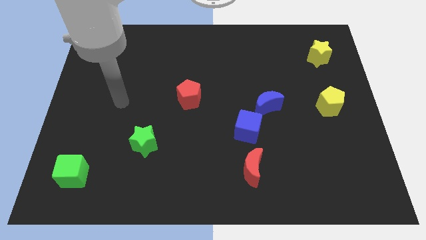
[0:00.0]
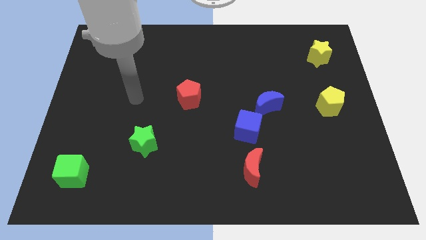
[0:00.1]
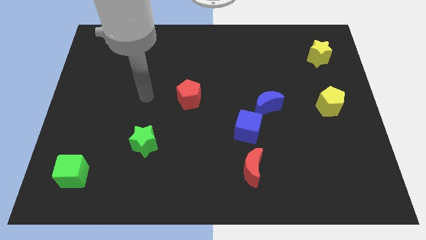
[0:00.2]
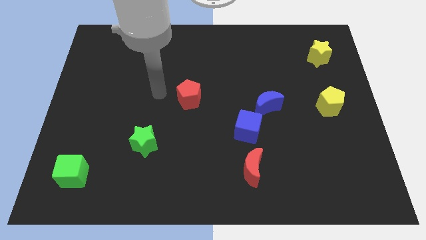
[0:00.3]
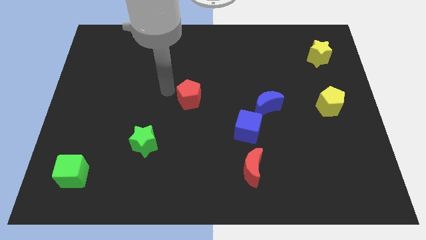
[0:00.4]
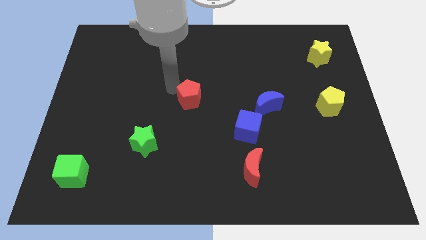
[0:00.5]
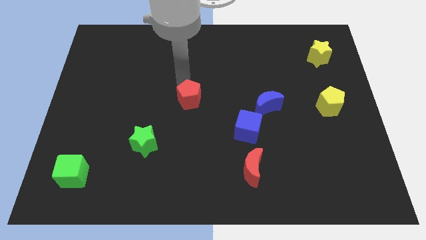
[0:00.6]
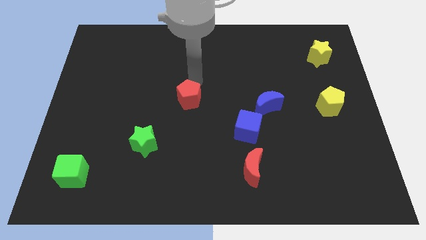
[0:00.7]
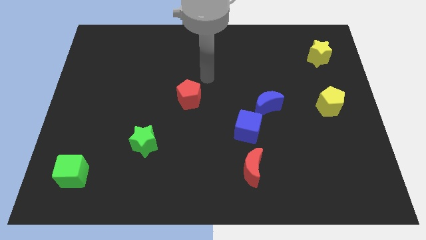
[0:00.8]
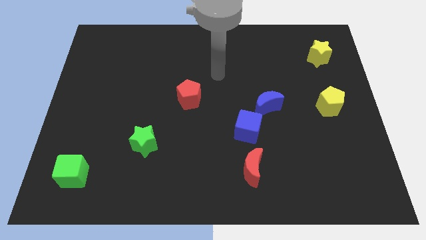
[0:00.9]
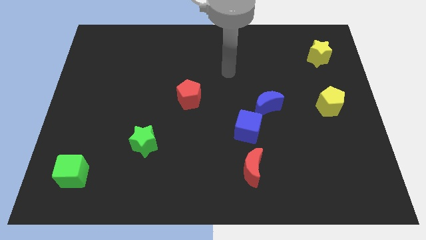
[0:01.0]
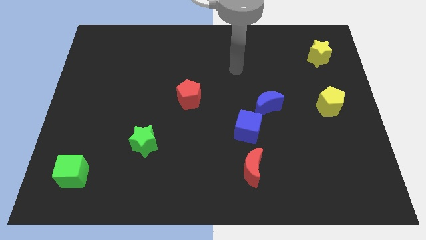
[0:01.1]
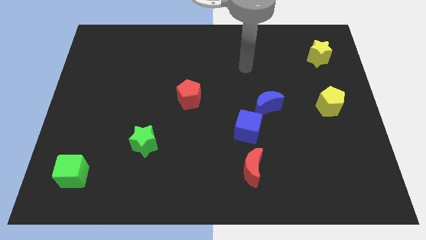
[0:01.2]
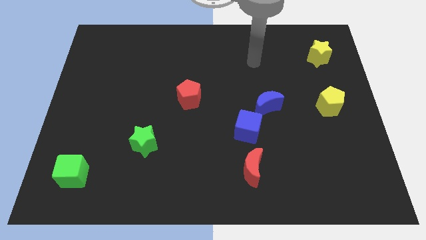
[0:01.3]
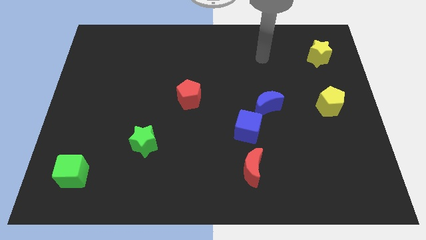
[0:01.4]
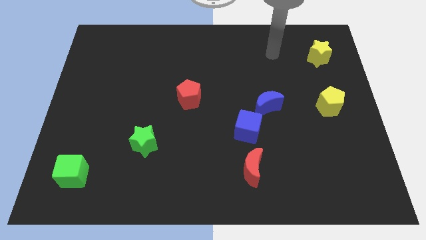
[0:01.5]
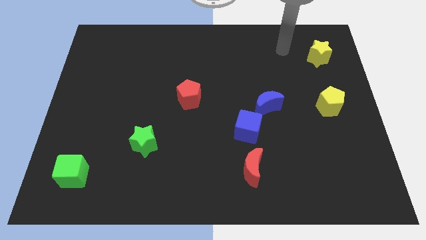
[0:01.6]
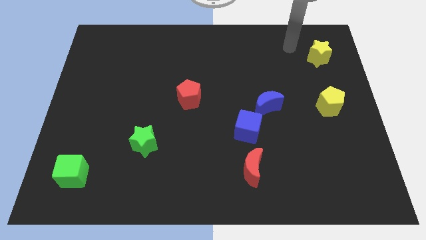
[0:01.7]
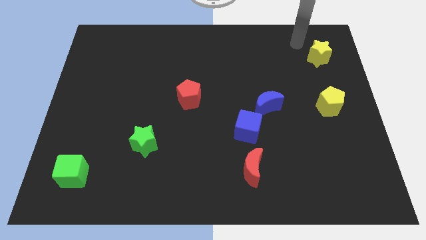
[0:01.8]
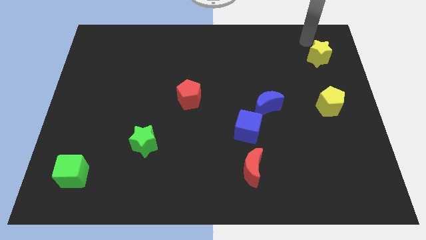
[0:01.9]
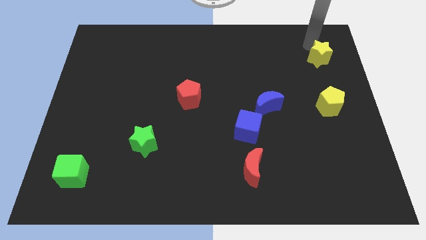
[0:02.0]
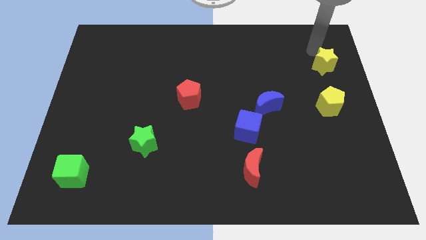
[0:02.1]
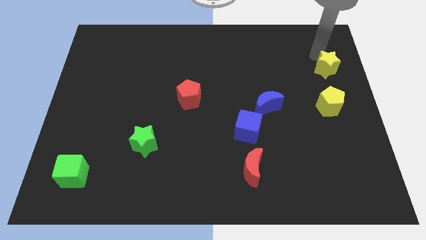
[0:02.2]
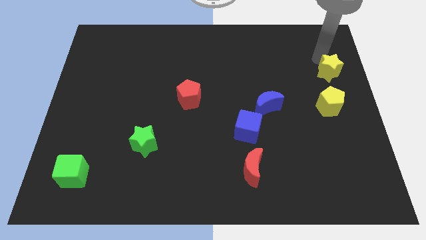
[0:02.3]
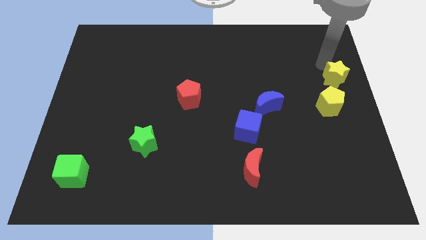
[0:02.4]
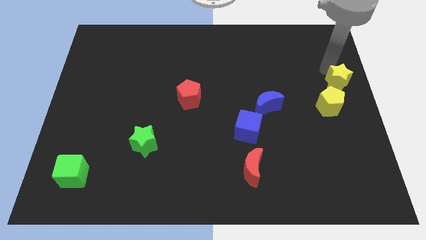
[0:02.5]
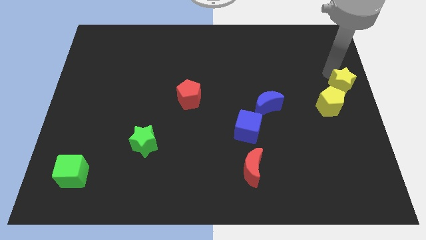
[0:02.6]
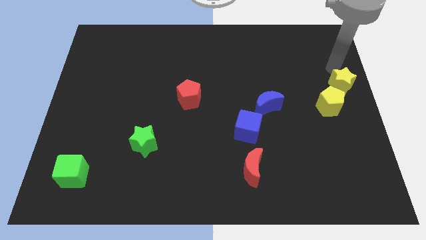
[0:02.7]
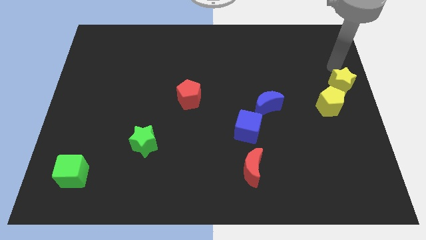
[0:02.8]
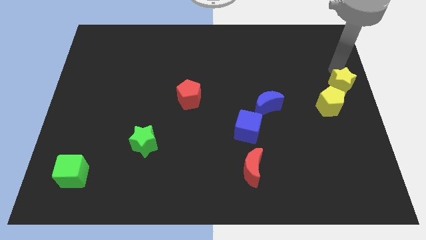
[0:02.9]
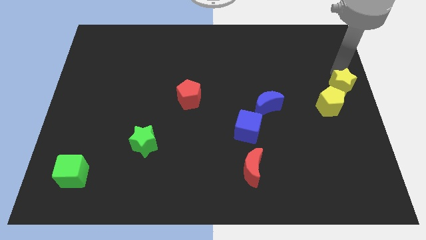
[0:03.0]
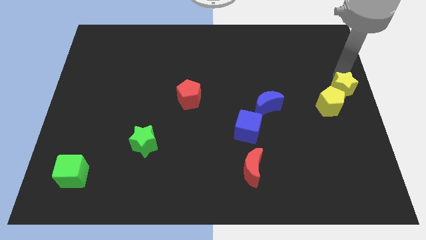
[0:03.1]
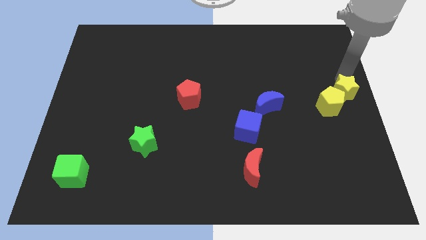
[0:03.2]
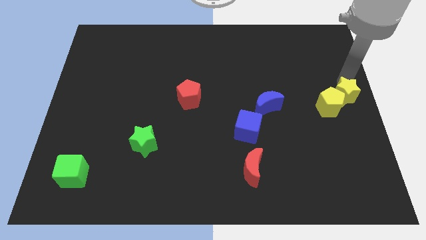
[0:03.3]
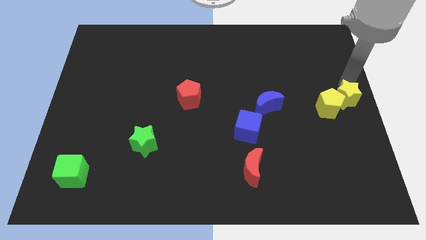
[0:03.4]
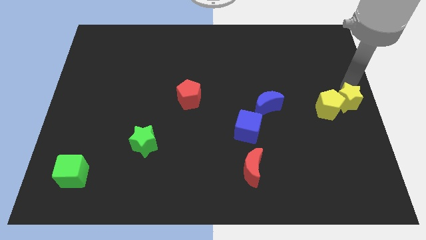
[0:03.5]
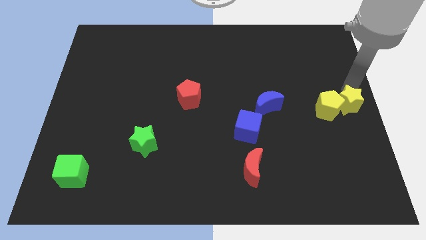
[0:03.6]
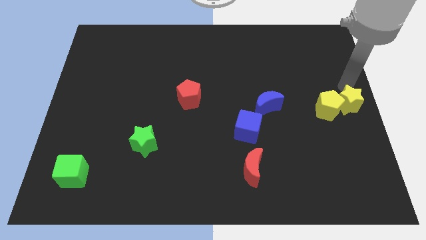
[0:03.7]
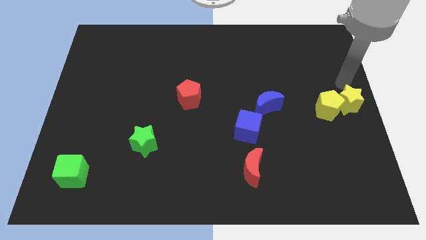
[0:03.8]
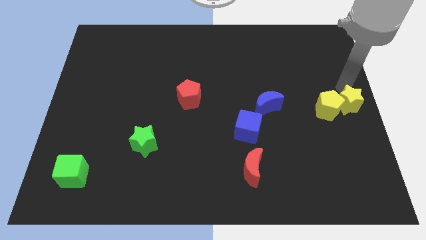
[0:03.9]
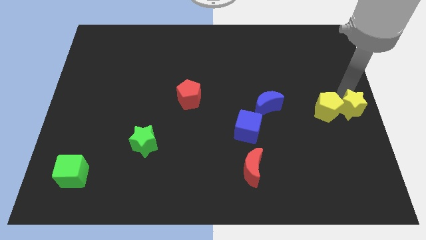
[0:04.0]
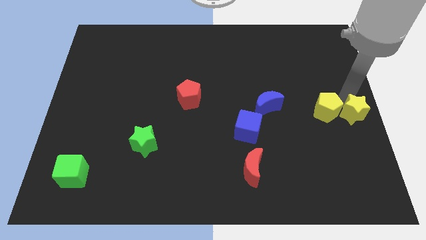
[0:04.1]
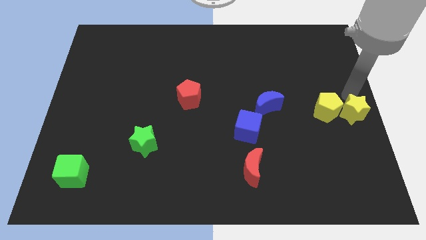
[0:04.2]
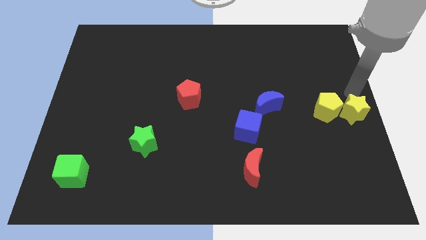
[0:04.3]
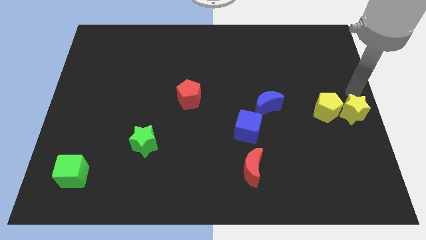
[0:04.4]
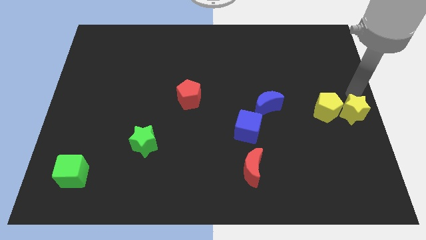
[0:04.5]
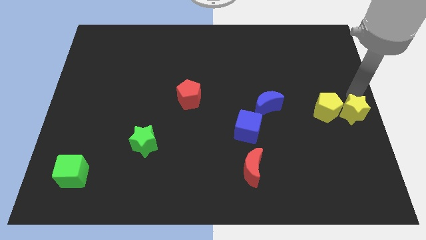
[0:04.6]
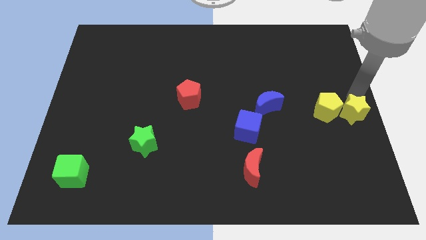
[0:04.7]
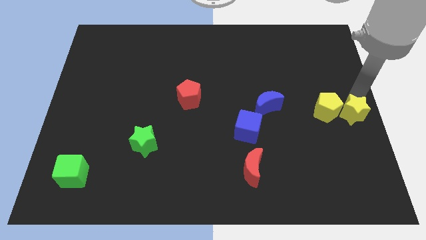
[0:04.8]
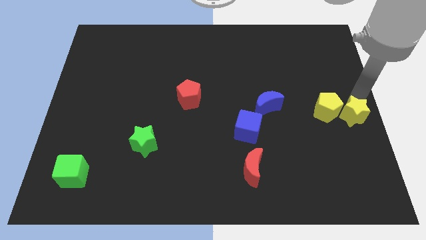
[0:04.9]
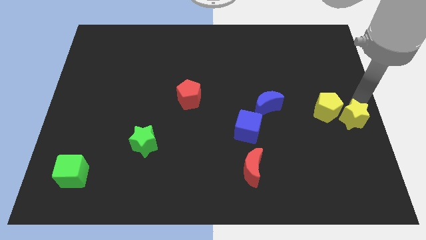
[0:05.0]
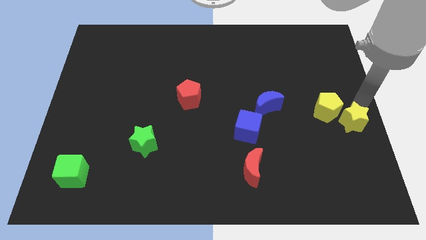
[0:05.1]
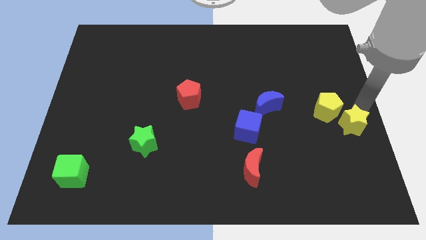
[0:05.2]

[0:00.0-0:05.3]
push the yellow star below the yellow pentagon

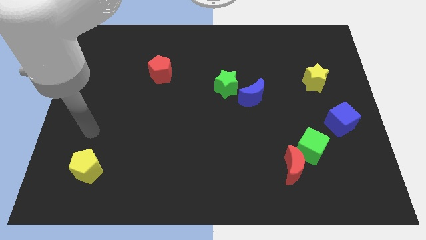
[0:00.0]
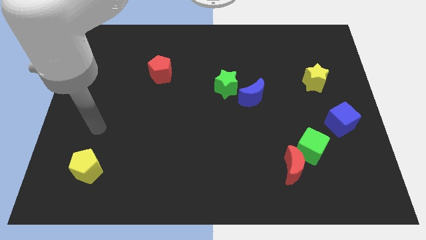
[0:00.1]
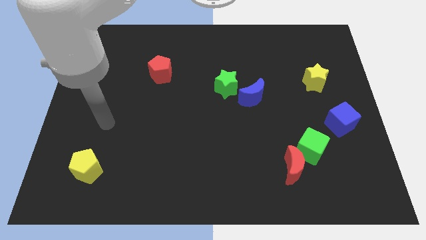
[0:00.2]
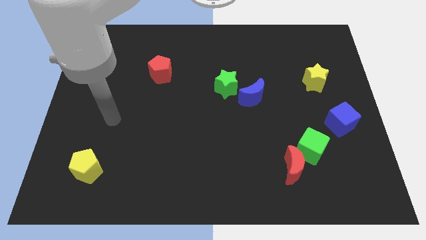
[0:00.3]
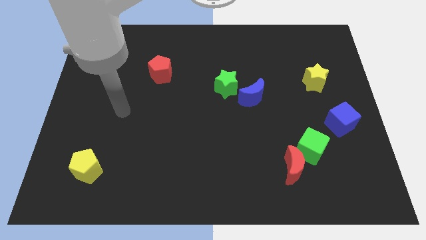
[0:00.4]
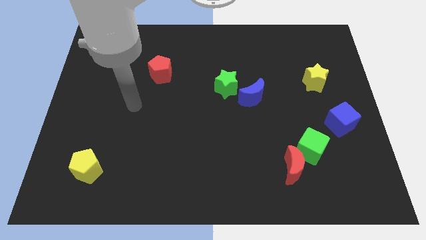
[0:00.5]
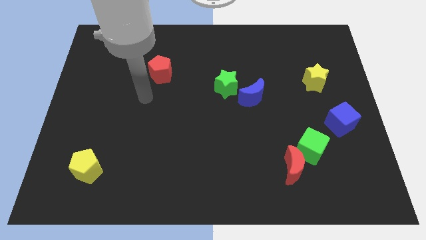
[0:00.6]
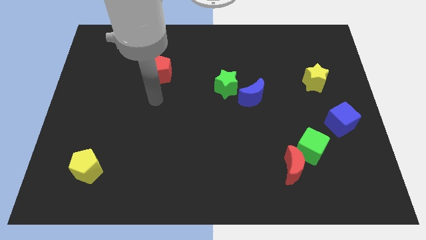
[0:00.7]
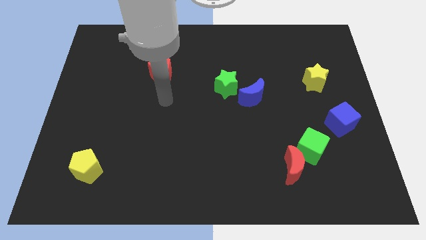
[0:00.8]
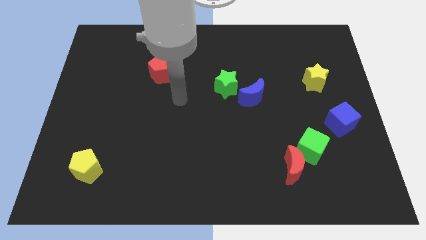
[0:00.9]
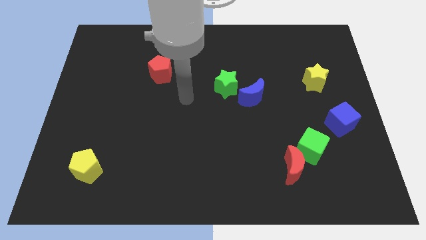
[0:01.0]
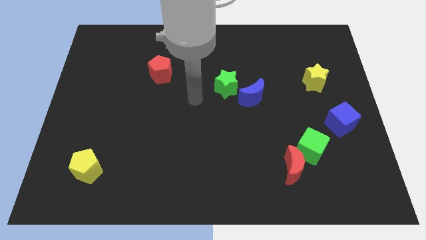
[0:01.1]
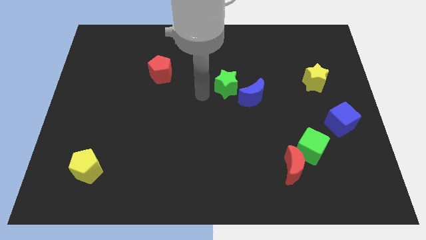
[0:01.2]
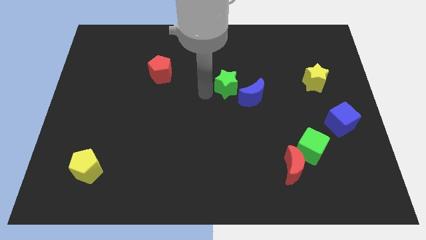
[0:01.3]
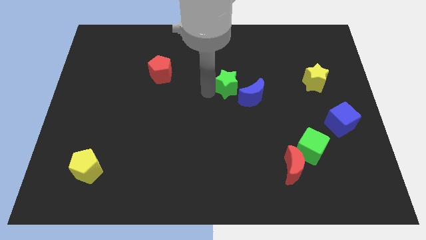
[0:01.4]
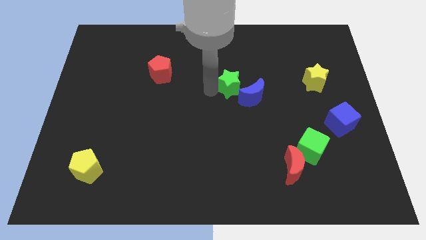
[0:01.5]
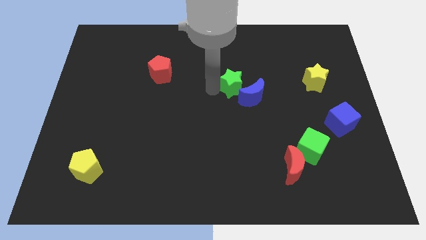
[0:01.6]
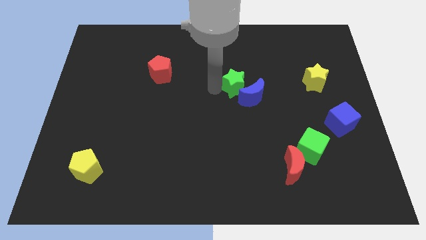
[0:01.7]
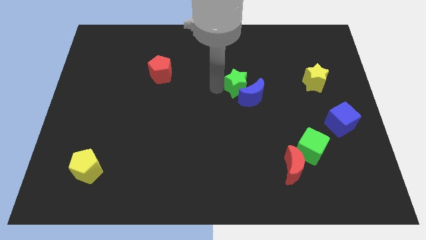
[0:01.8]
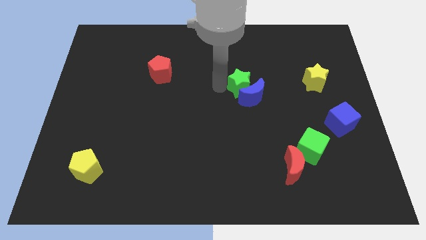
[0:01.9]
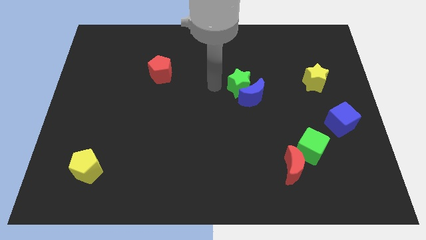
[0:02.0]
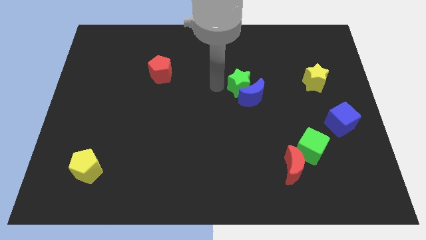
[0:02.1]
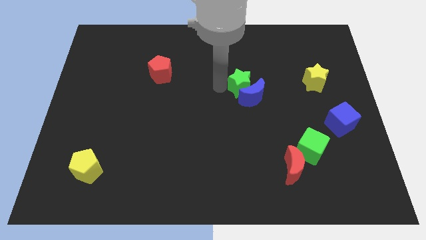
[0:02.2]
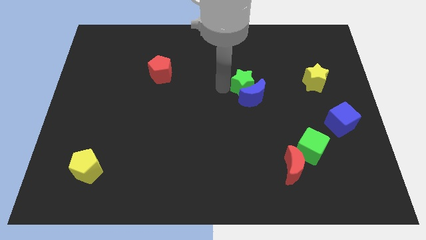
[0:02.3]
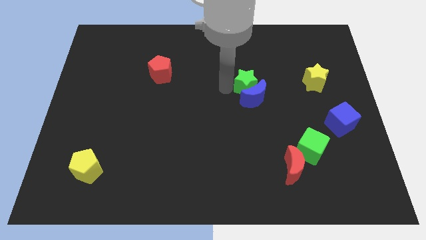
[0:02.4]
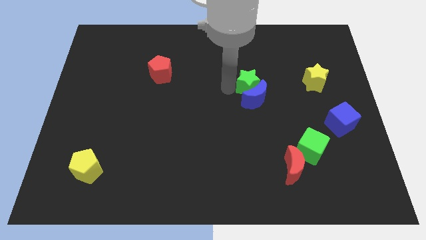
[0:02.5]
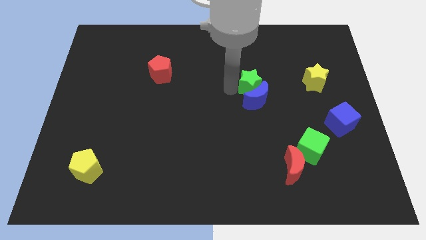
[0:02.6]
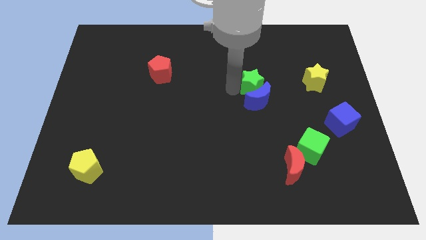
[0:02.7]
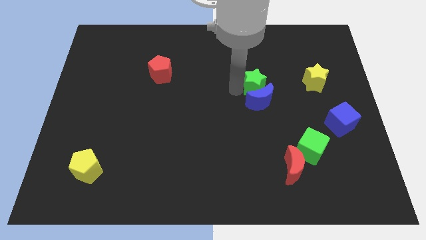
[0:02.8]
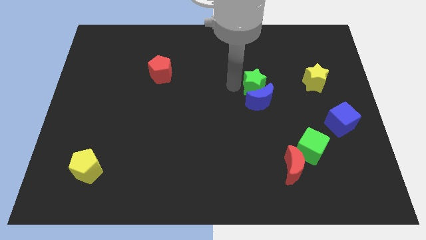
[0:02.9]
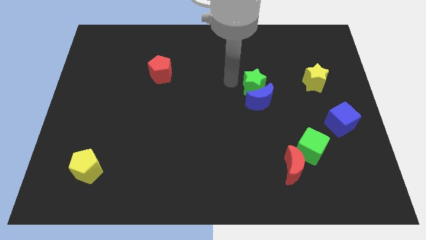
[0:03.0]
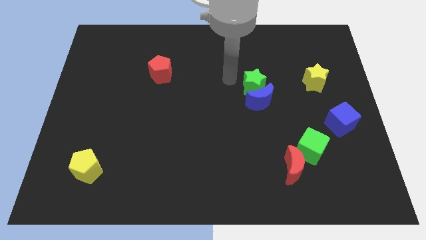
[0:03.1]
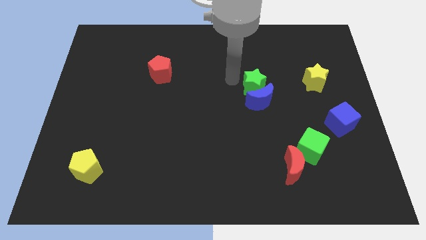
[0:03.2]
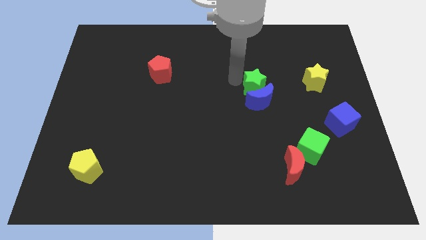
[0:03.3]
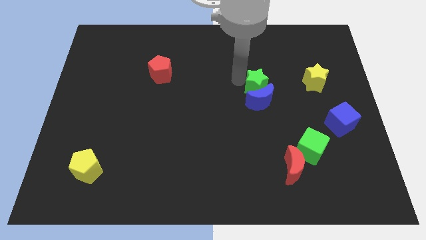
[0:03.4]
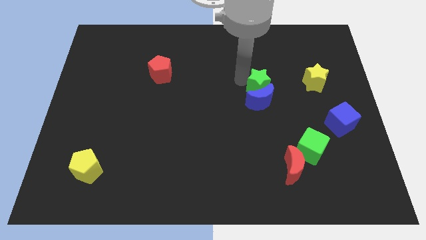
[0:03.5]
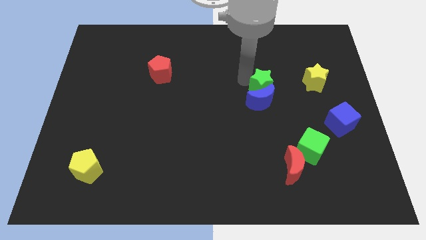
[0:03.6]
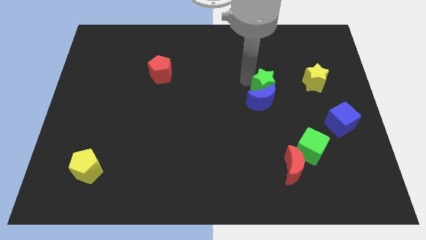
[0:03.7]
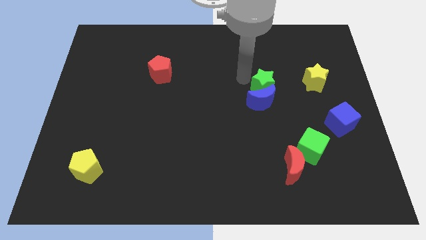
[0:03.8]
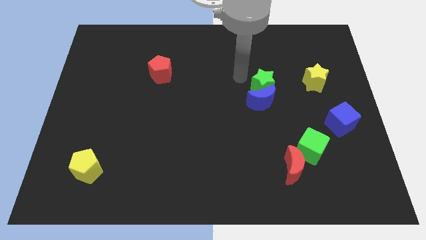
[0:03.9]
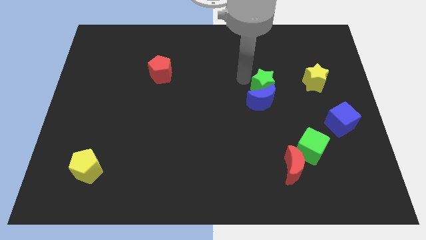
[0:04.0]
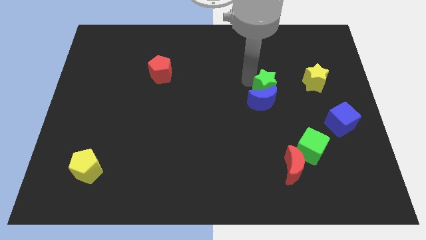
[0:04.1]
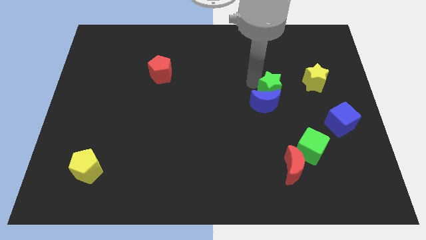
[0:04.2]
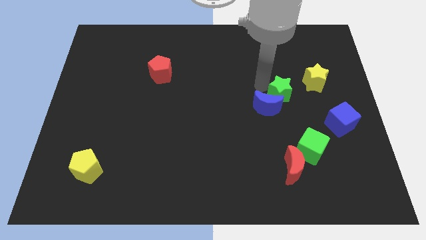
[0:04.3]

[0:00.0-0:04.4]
slide the green star just right of the blue moon
